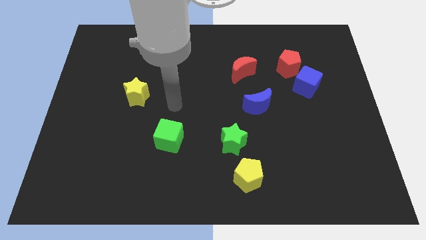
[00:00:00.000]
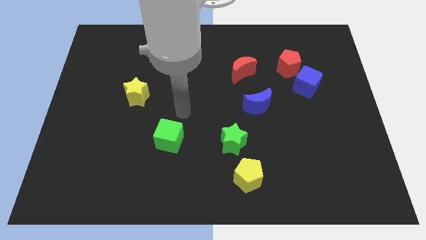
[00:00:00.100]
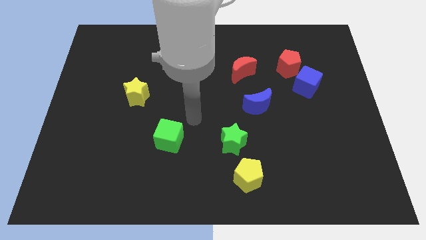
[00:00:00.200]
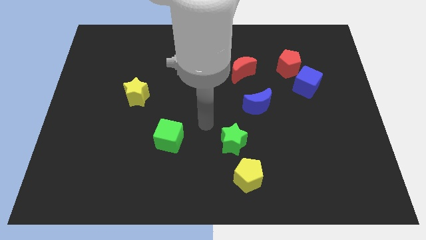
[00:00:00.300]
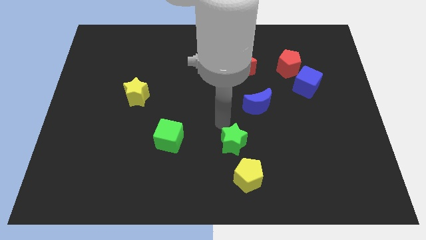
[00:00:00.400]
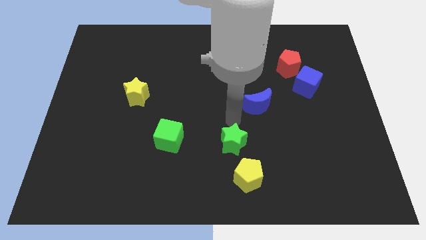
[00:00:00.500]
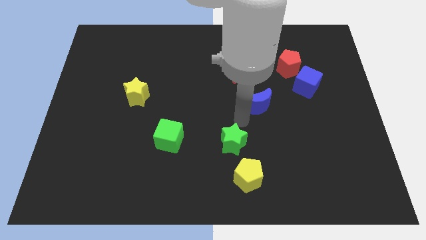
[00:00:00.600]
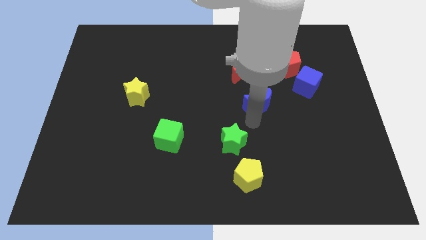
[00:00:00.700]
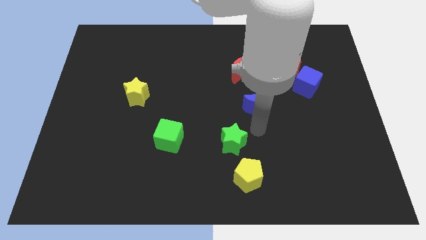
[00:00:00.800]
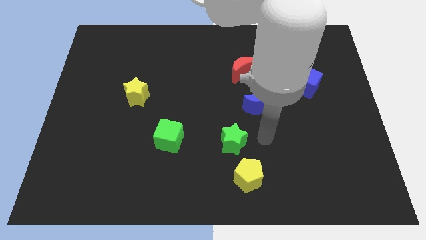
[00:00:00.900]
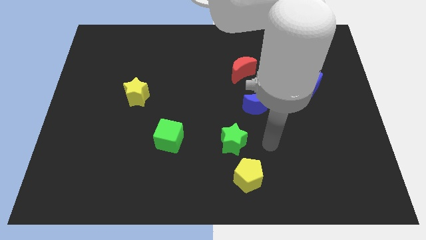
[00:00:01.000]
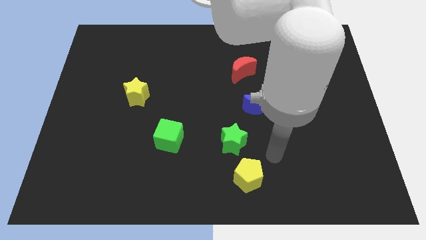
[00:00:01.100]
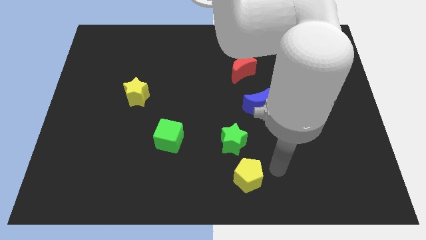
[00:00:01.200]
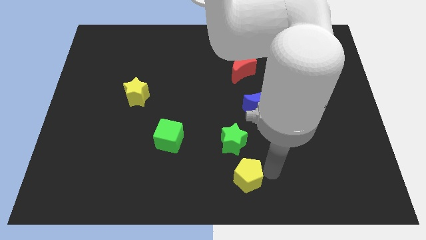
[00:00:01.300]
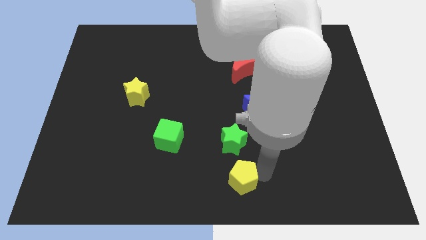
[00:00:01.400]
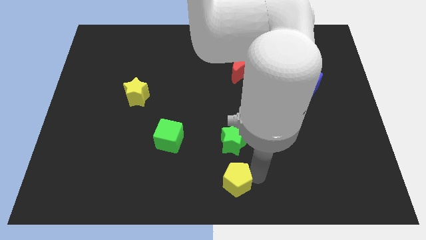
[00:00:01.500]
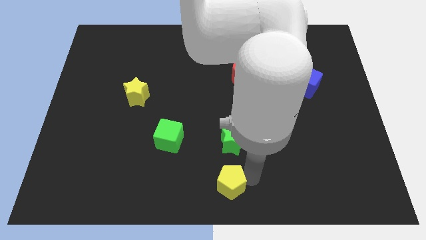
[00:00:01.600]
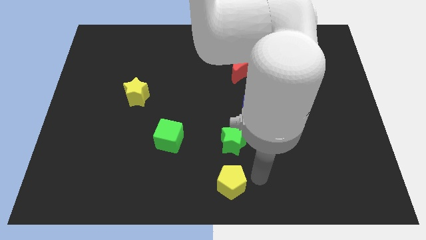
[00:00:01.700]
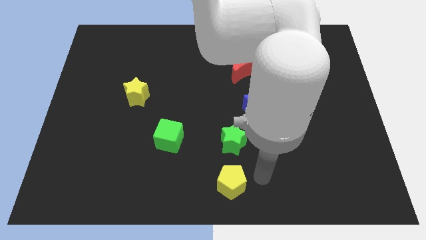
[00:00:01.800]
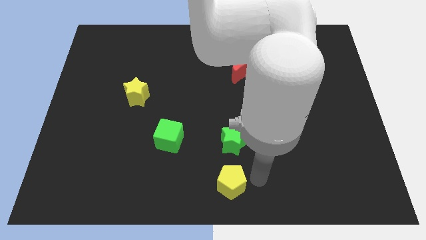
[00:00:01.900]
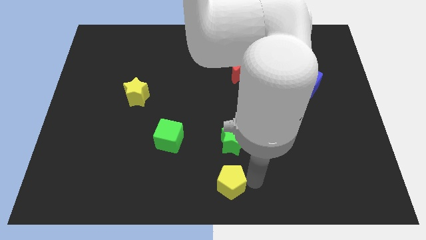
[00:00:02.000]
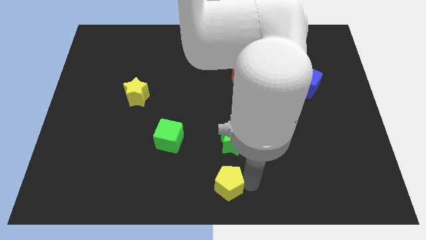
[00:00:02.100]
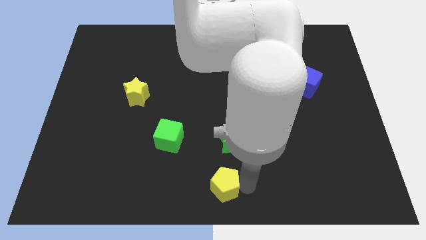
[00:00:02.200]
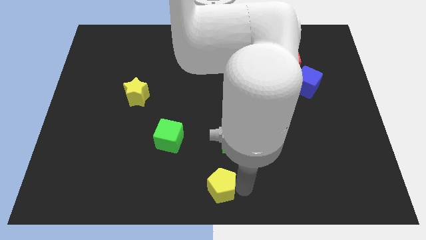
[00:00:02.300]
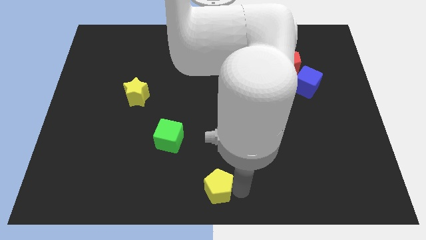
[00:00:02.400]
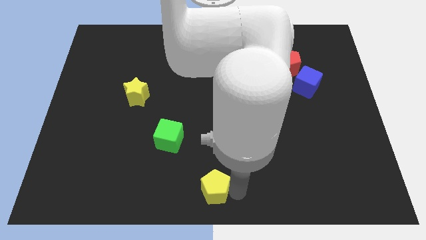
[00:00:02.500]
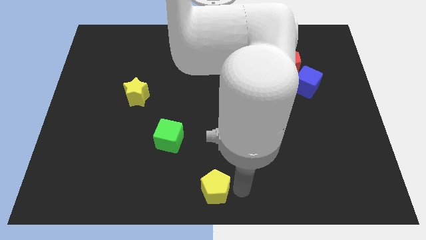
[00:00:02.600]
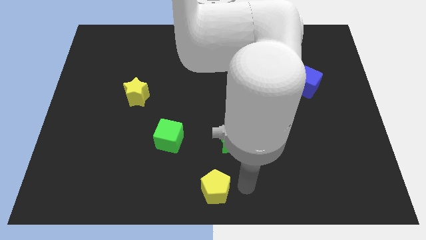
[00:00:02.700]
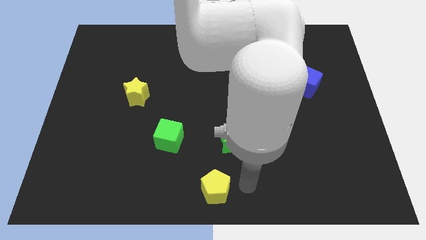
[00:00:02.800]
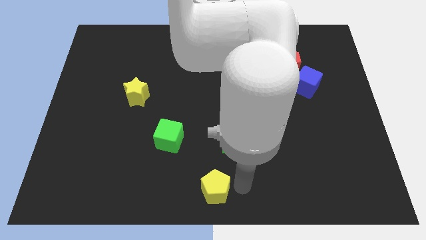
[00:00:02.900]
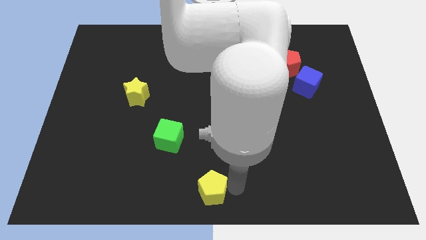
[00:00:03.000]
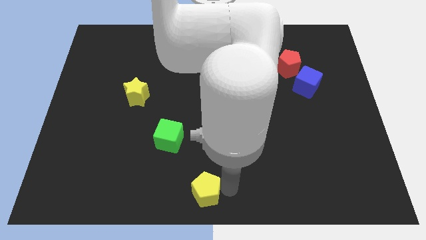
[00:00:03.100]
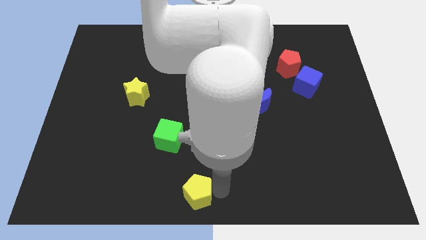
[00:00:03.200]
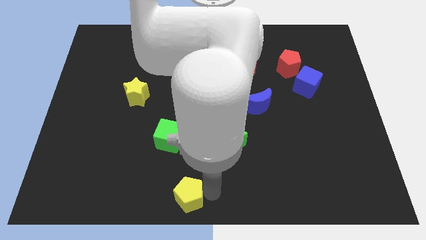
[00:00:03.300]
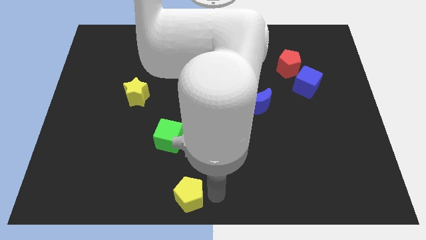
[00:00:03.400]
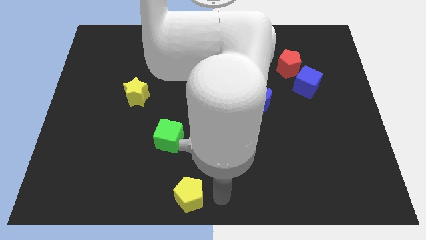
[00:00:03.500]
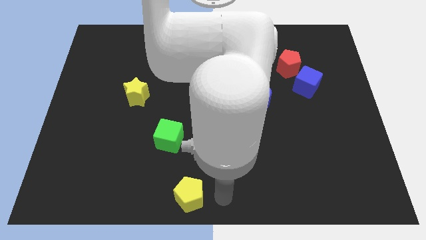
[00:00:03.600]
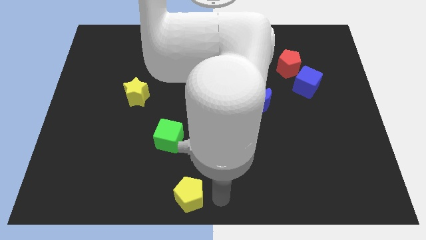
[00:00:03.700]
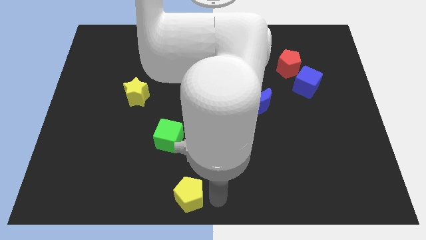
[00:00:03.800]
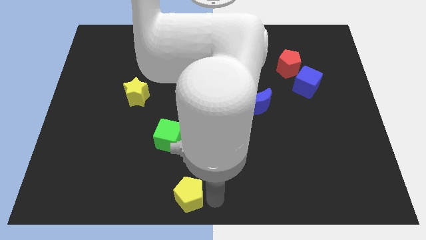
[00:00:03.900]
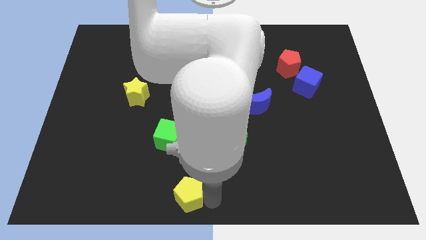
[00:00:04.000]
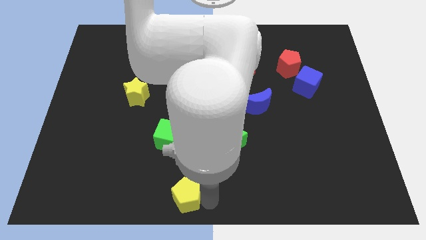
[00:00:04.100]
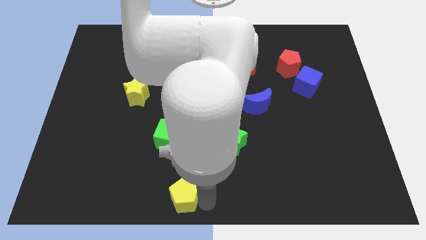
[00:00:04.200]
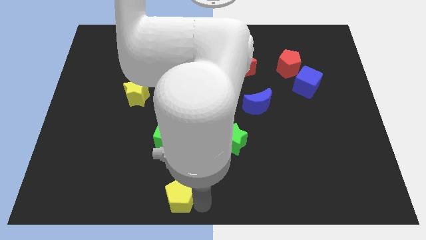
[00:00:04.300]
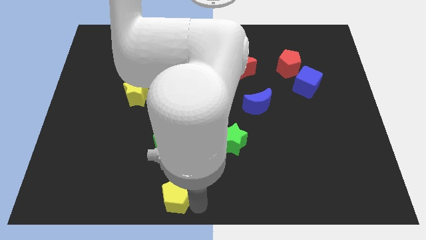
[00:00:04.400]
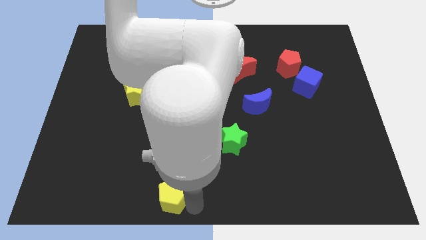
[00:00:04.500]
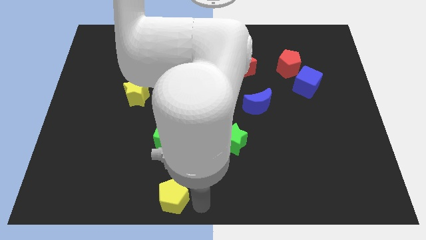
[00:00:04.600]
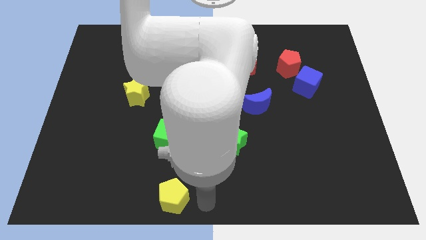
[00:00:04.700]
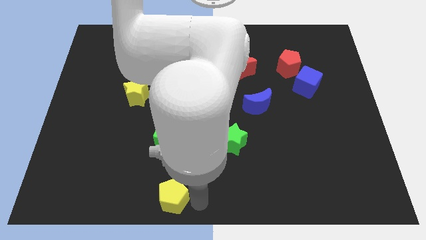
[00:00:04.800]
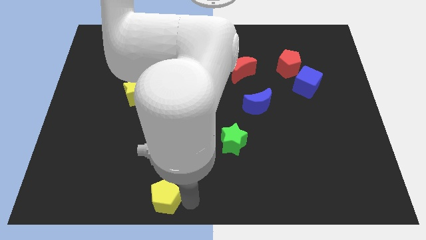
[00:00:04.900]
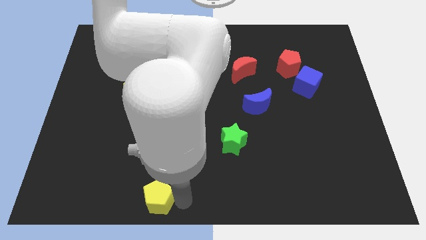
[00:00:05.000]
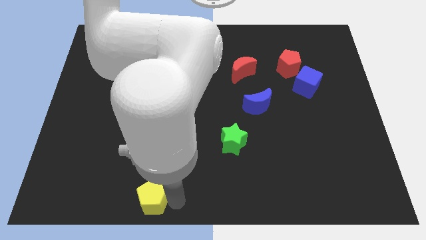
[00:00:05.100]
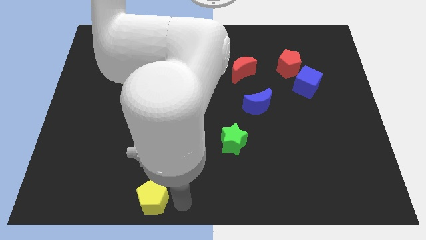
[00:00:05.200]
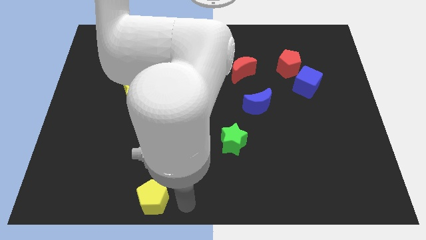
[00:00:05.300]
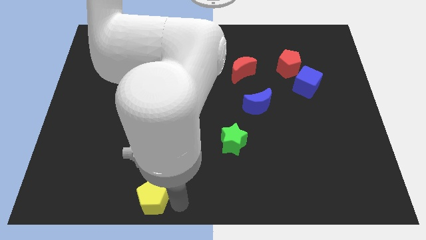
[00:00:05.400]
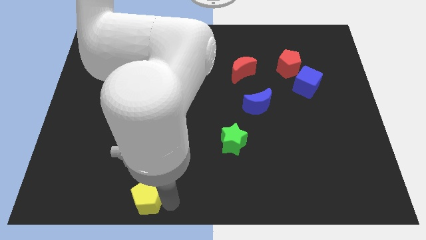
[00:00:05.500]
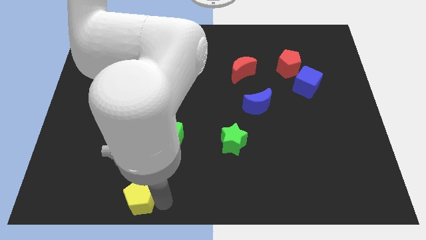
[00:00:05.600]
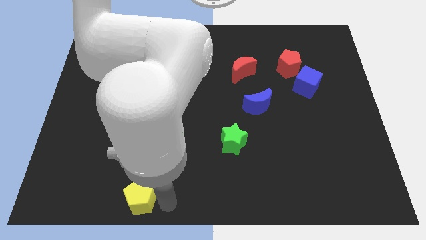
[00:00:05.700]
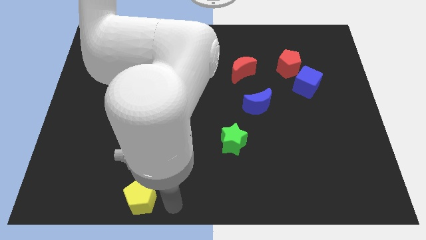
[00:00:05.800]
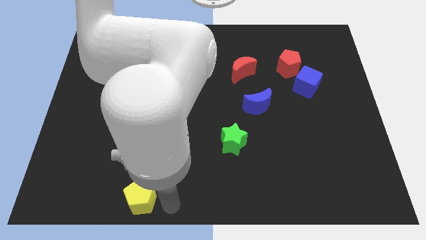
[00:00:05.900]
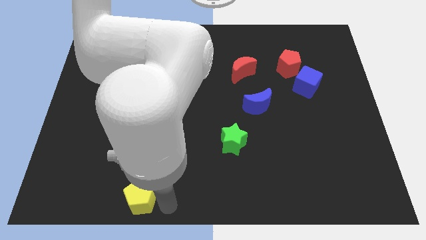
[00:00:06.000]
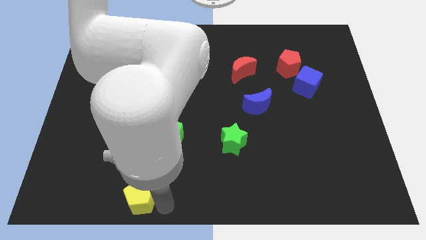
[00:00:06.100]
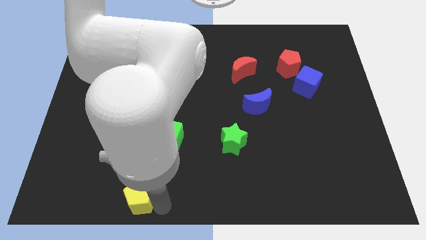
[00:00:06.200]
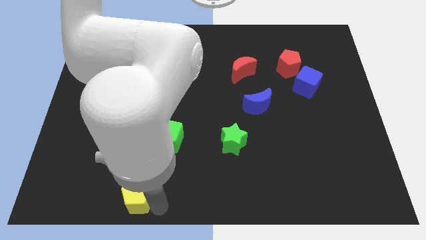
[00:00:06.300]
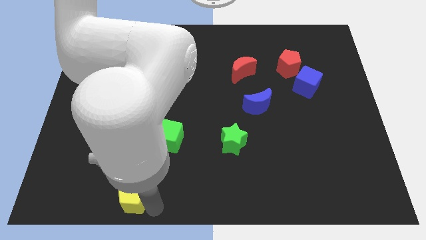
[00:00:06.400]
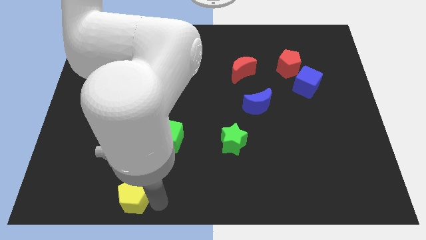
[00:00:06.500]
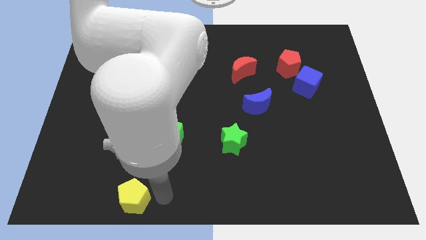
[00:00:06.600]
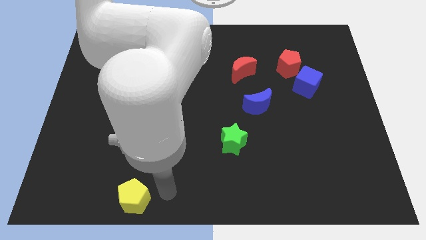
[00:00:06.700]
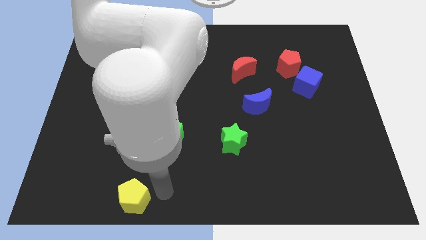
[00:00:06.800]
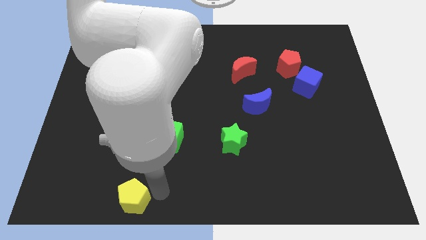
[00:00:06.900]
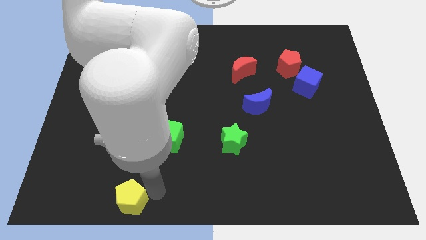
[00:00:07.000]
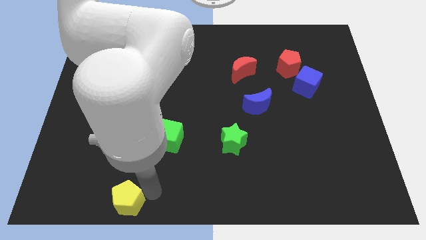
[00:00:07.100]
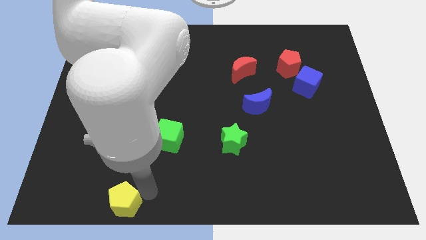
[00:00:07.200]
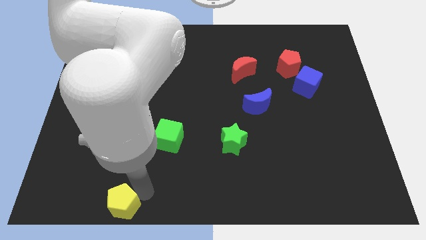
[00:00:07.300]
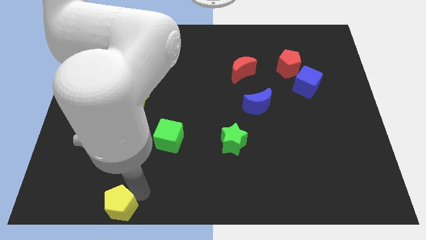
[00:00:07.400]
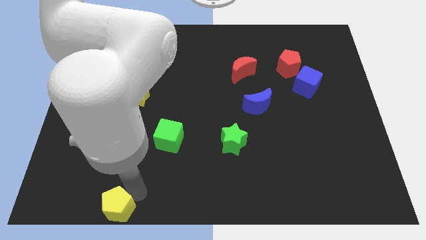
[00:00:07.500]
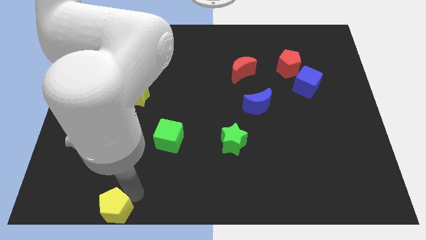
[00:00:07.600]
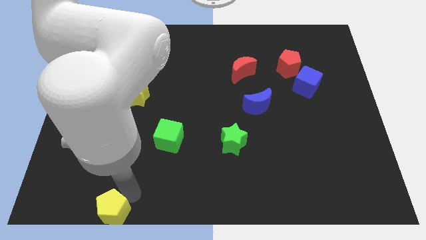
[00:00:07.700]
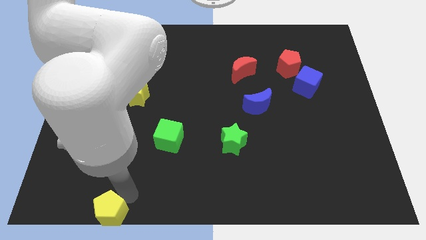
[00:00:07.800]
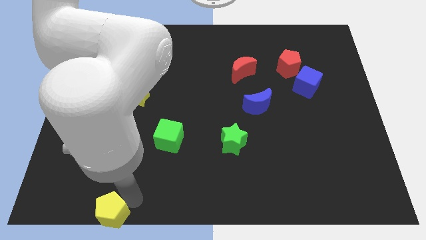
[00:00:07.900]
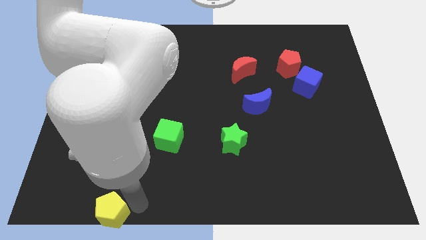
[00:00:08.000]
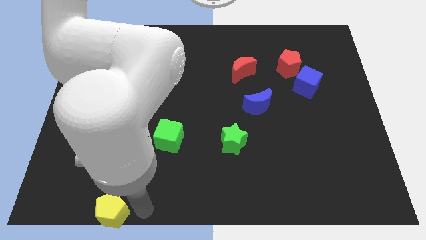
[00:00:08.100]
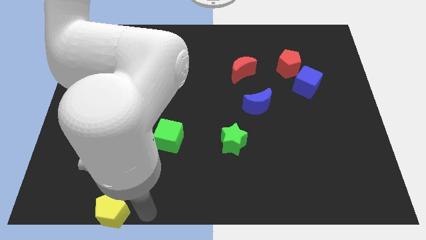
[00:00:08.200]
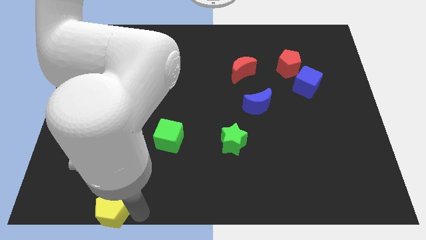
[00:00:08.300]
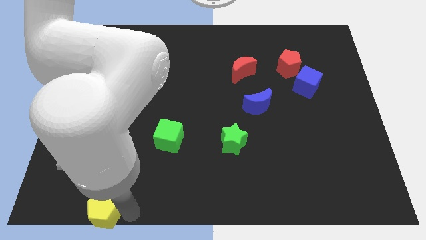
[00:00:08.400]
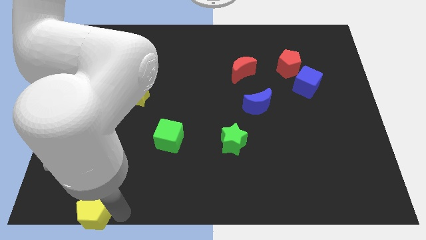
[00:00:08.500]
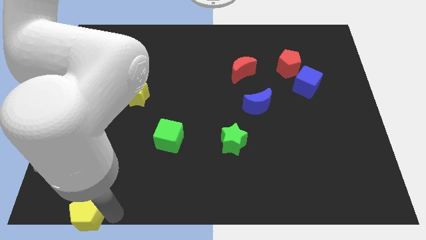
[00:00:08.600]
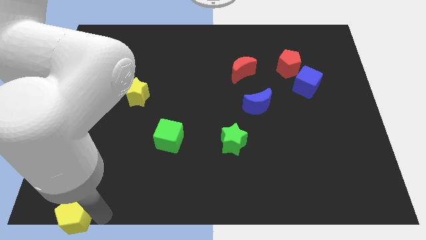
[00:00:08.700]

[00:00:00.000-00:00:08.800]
push the yellow pentagon to the bottom left
